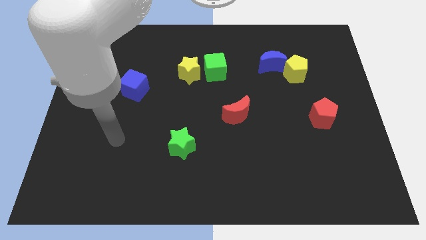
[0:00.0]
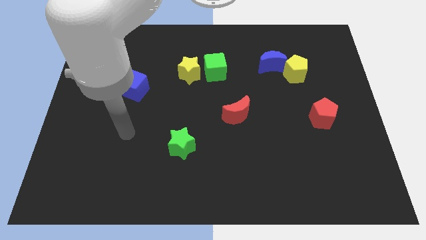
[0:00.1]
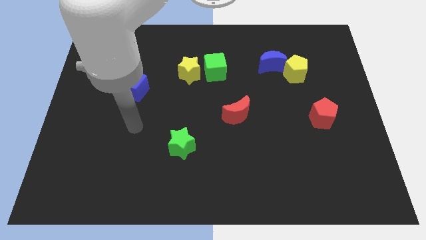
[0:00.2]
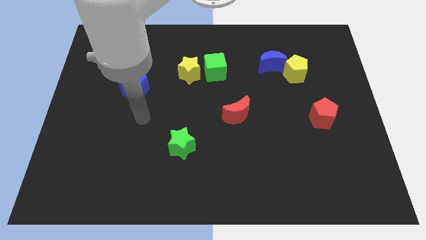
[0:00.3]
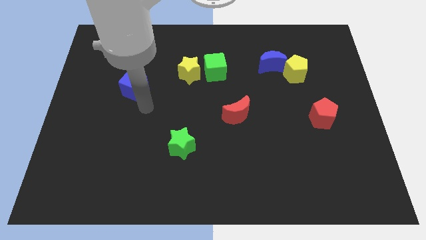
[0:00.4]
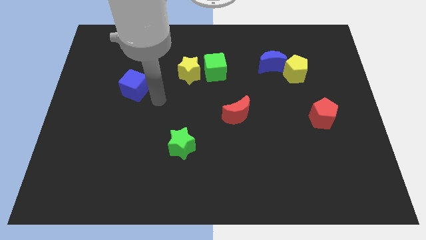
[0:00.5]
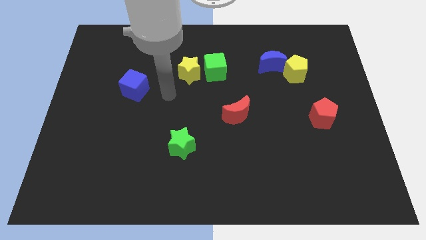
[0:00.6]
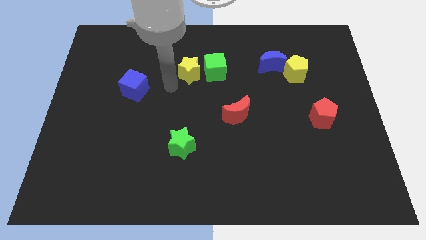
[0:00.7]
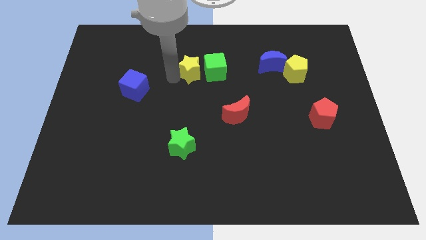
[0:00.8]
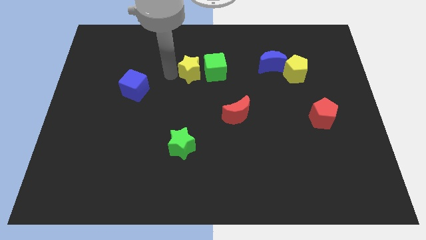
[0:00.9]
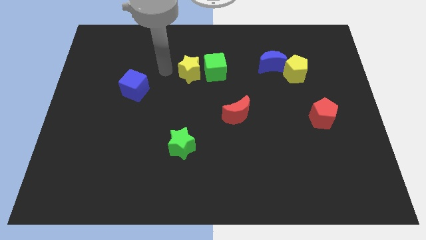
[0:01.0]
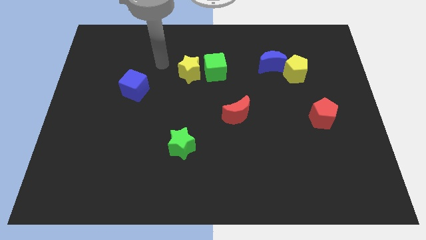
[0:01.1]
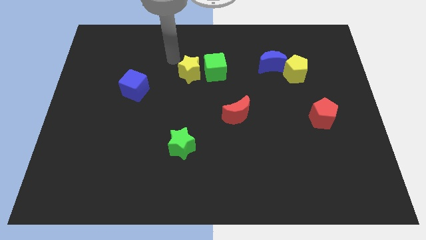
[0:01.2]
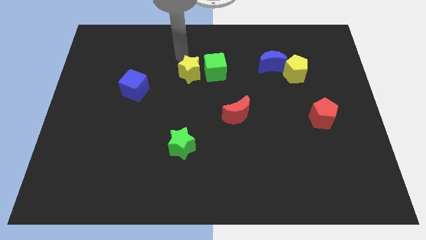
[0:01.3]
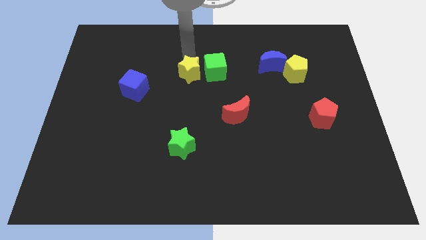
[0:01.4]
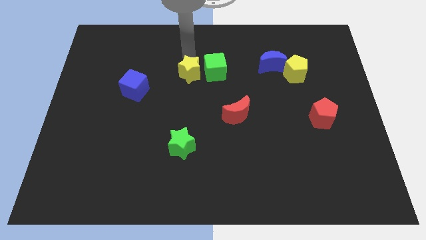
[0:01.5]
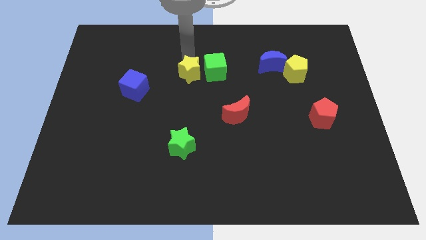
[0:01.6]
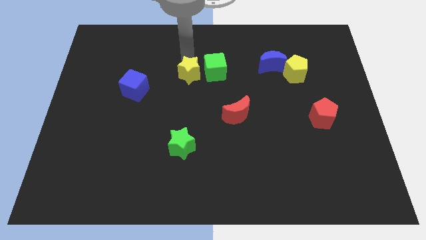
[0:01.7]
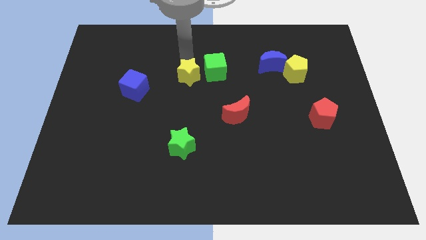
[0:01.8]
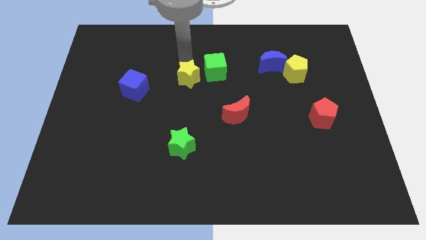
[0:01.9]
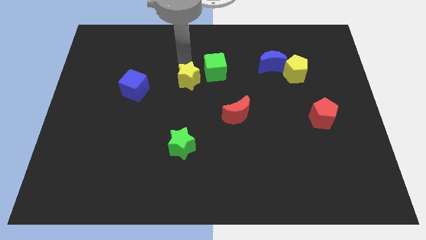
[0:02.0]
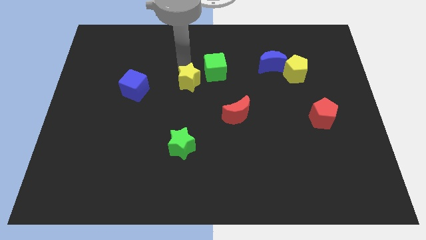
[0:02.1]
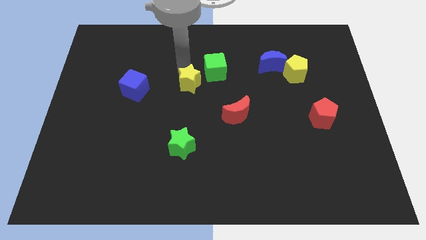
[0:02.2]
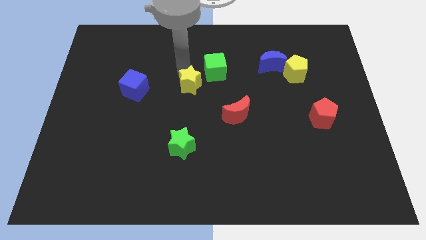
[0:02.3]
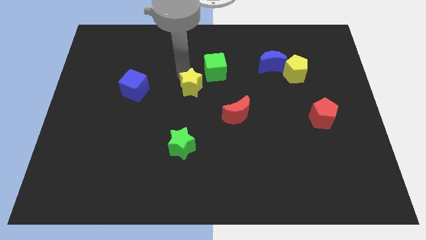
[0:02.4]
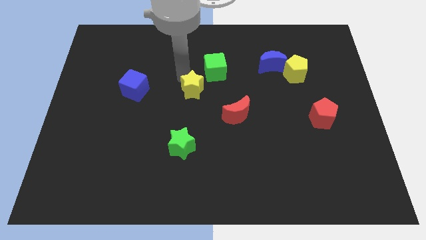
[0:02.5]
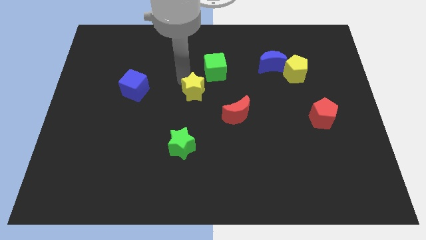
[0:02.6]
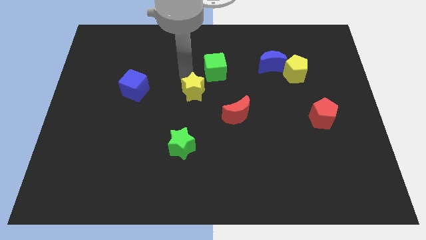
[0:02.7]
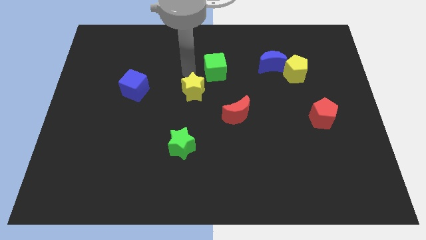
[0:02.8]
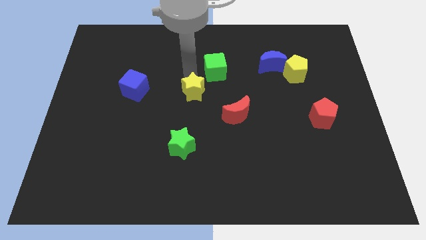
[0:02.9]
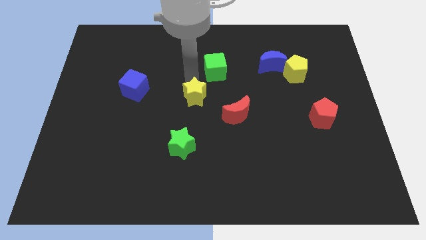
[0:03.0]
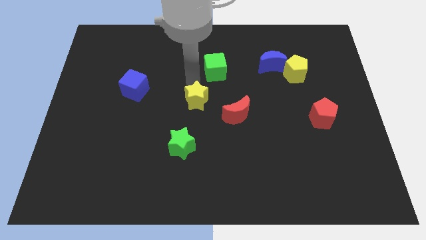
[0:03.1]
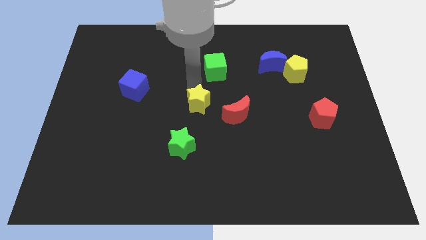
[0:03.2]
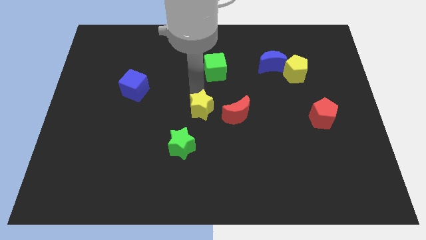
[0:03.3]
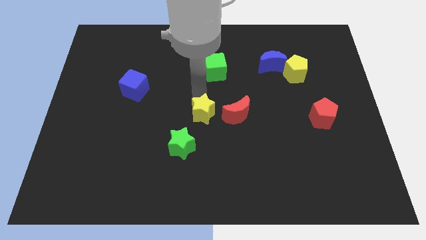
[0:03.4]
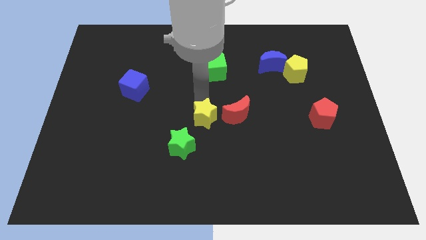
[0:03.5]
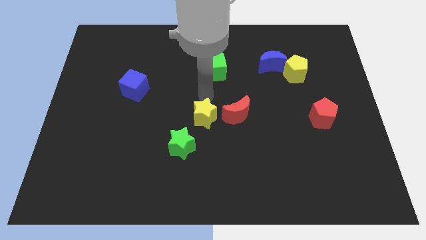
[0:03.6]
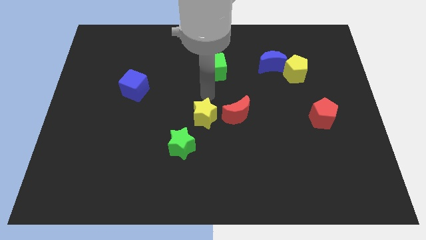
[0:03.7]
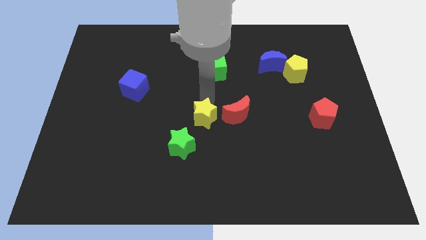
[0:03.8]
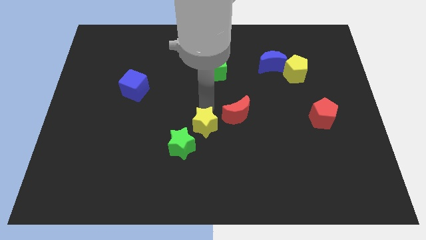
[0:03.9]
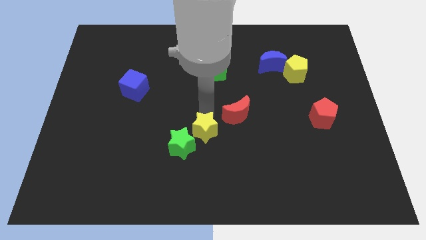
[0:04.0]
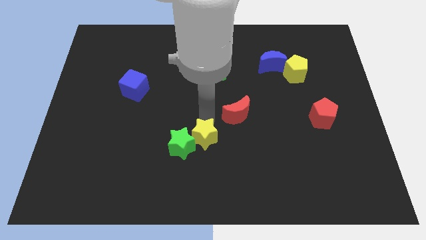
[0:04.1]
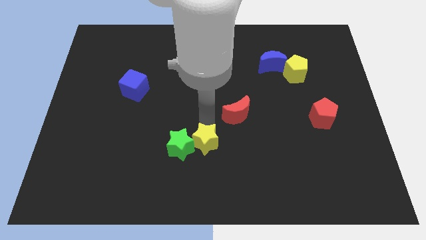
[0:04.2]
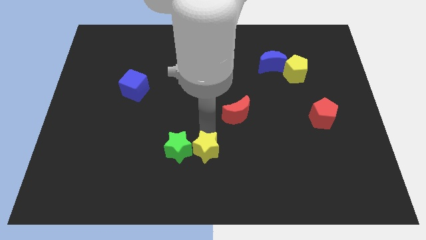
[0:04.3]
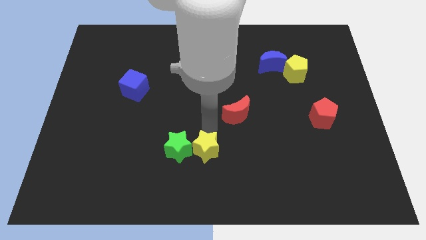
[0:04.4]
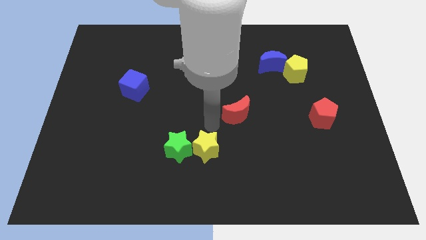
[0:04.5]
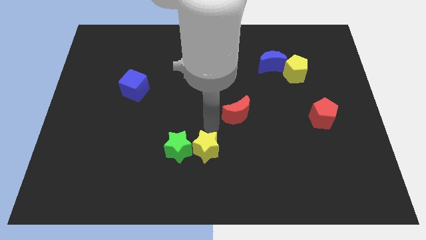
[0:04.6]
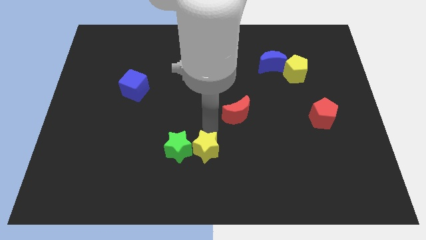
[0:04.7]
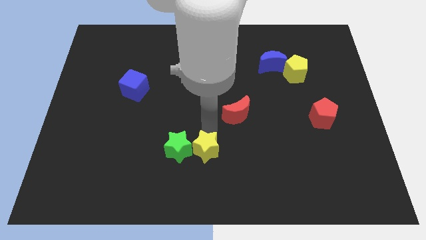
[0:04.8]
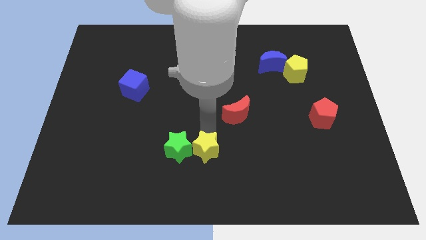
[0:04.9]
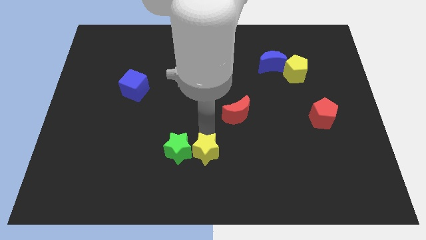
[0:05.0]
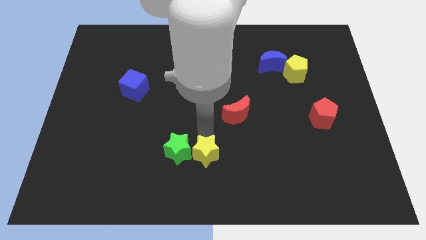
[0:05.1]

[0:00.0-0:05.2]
push the yellow star to the bottom side

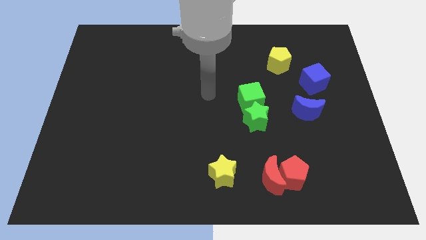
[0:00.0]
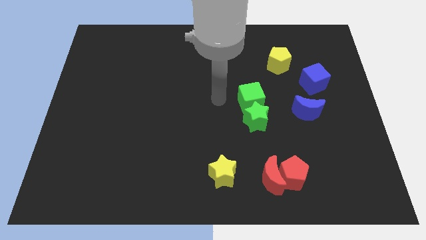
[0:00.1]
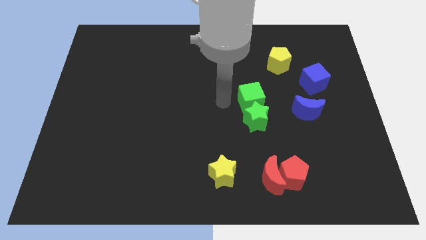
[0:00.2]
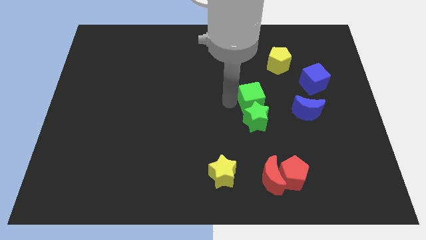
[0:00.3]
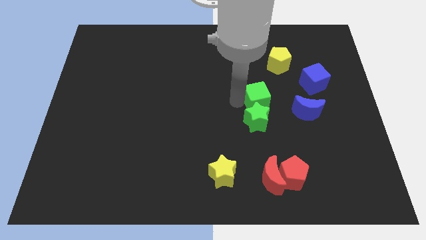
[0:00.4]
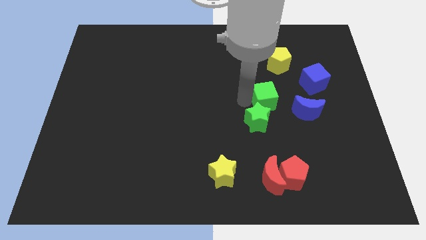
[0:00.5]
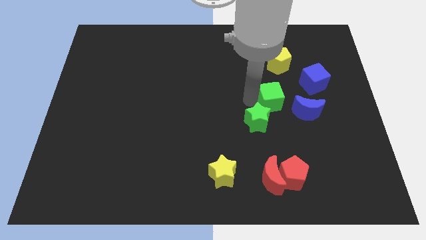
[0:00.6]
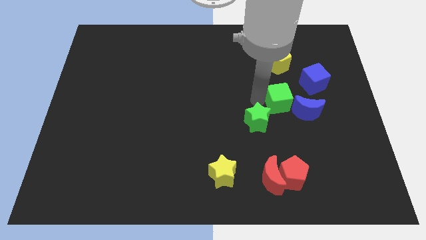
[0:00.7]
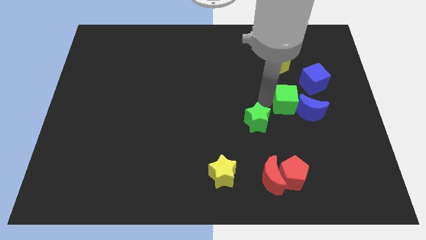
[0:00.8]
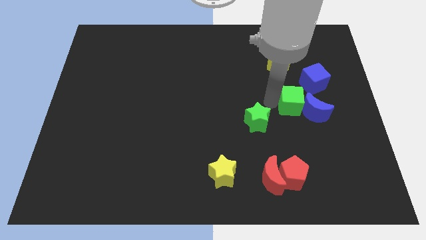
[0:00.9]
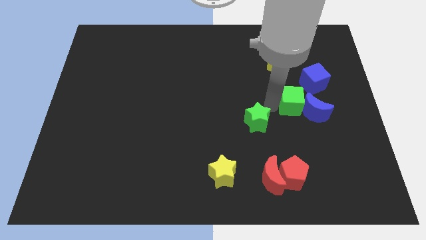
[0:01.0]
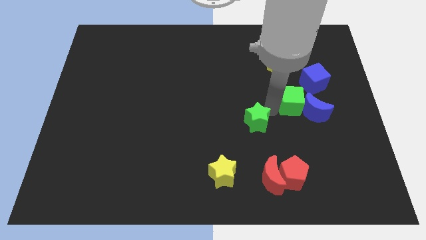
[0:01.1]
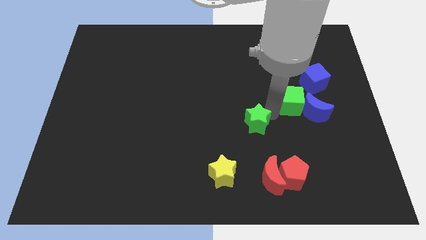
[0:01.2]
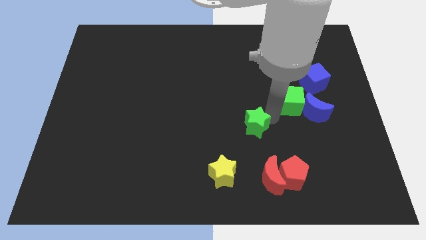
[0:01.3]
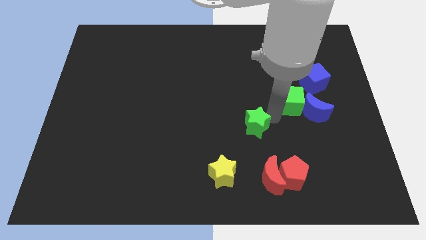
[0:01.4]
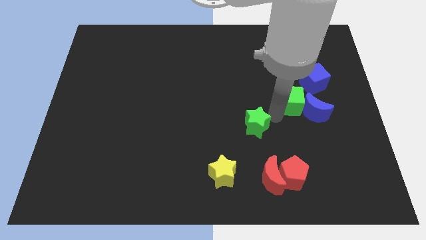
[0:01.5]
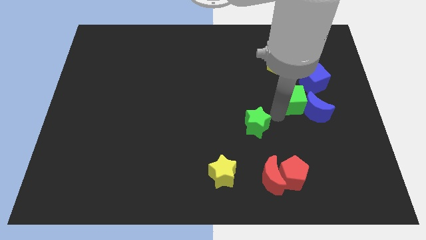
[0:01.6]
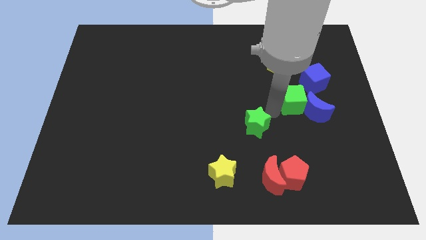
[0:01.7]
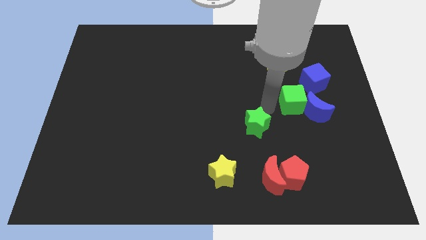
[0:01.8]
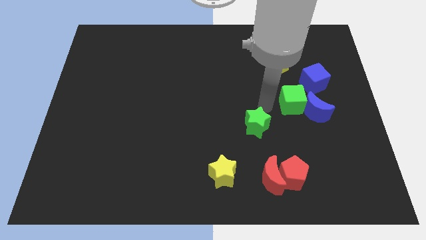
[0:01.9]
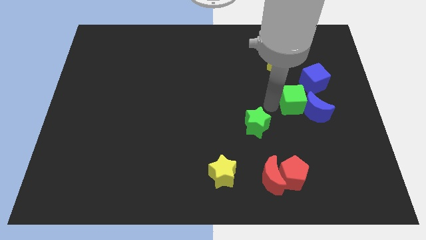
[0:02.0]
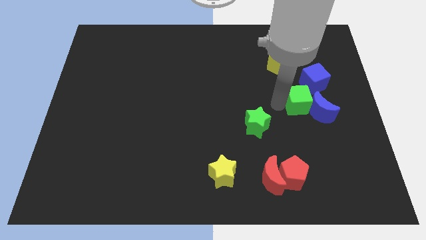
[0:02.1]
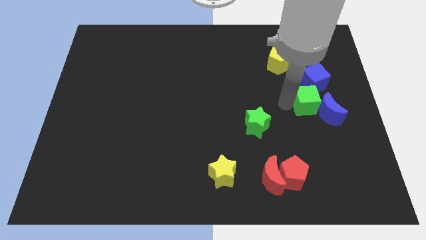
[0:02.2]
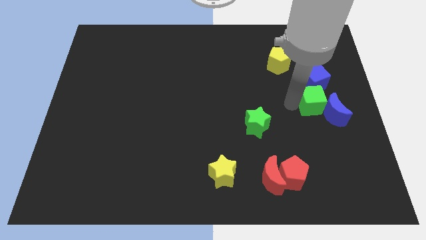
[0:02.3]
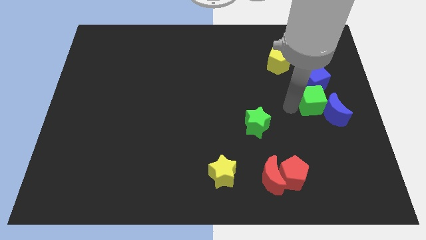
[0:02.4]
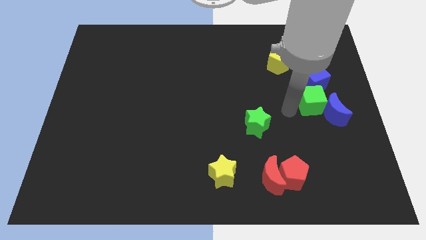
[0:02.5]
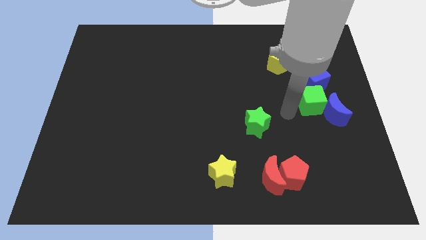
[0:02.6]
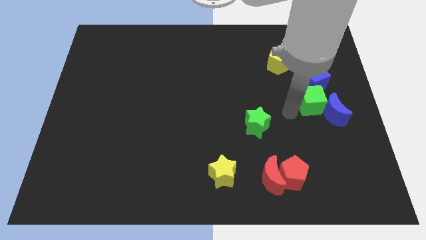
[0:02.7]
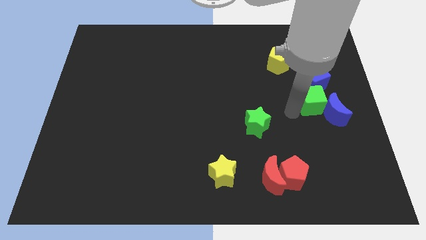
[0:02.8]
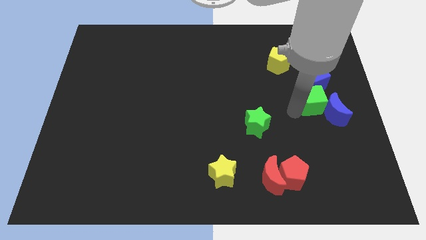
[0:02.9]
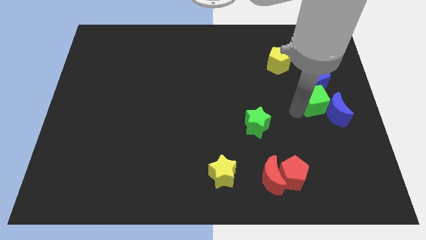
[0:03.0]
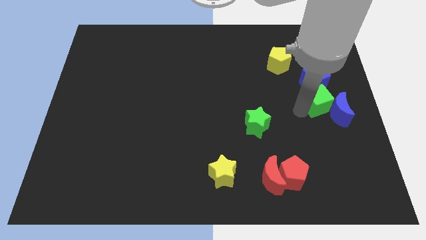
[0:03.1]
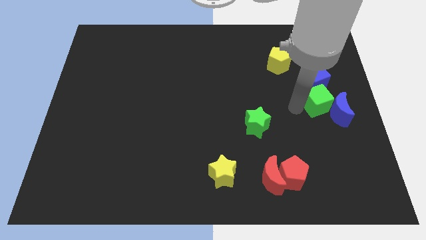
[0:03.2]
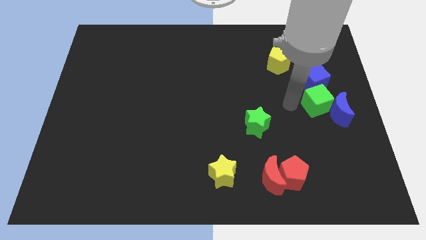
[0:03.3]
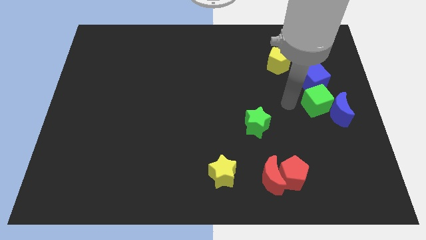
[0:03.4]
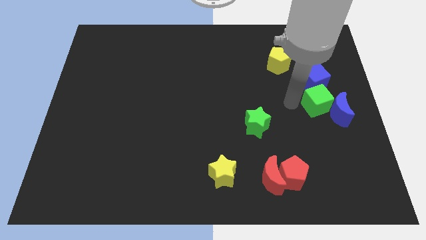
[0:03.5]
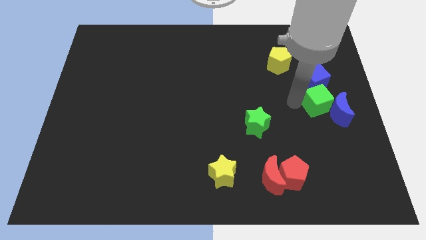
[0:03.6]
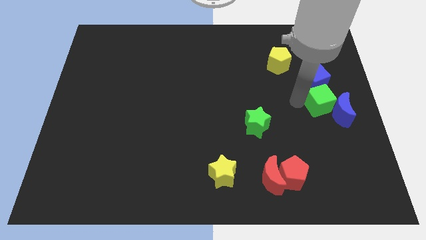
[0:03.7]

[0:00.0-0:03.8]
slide the green cube to the center right
